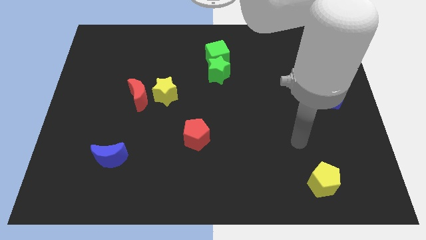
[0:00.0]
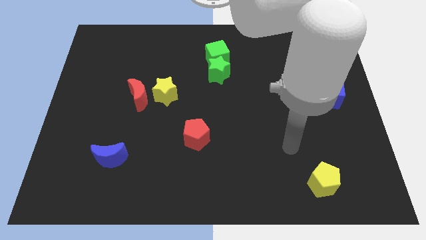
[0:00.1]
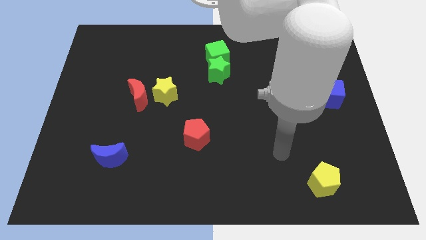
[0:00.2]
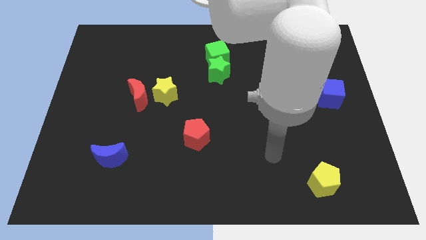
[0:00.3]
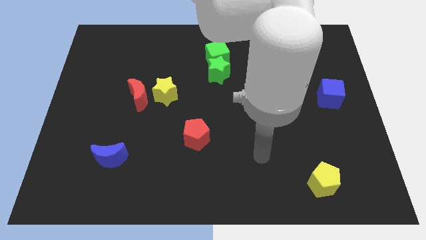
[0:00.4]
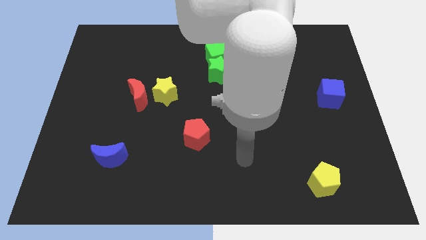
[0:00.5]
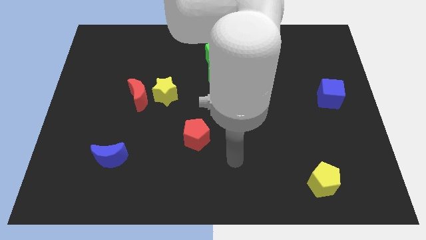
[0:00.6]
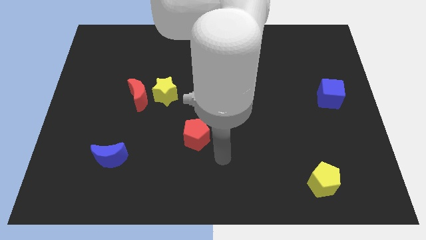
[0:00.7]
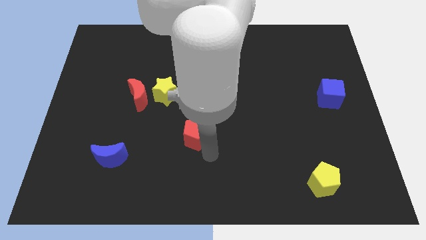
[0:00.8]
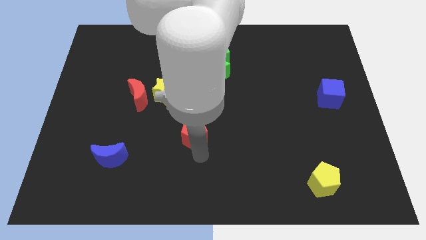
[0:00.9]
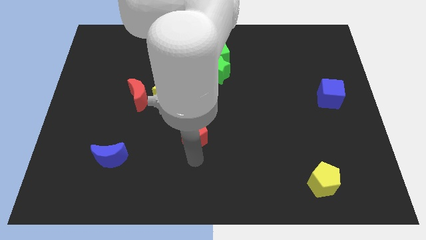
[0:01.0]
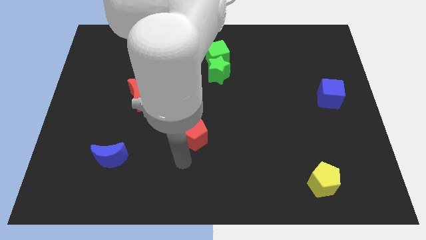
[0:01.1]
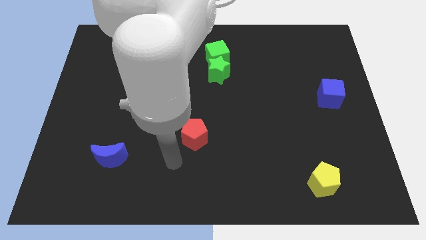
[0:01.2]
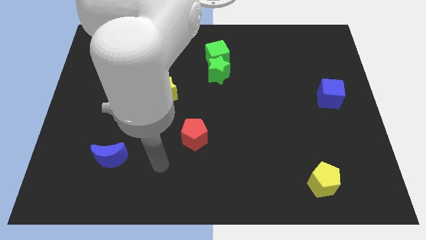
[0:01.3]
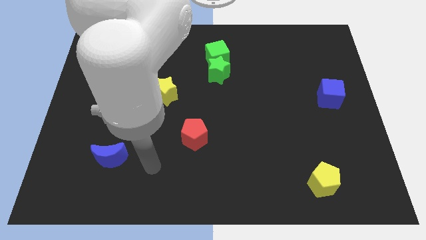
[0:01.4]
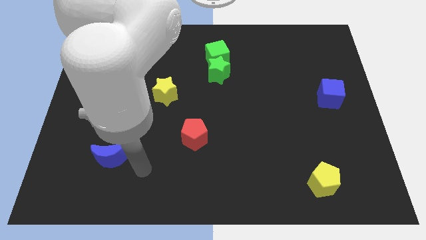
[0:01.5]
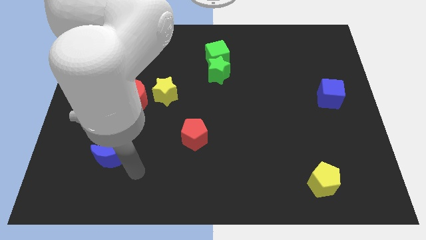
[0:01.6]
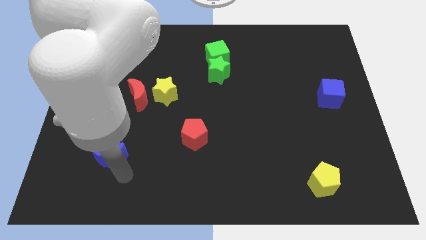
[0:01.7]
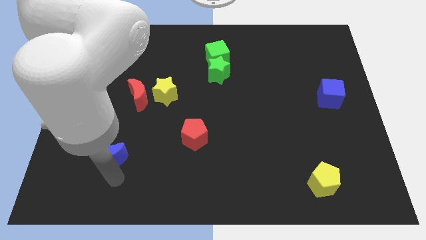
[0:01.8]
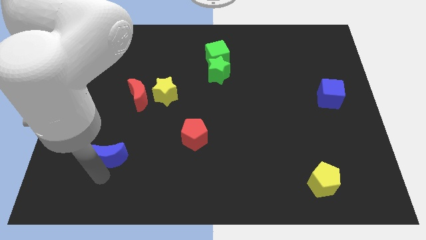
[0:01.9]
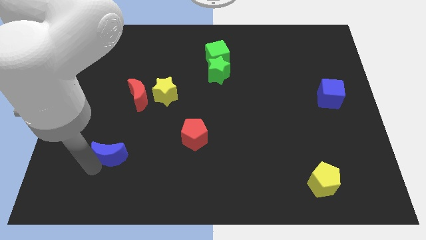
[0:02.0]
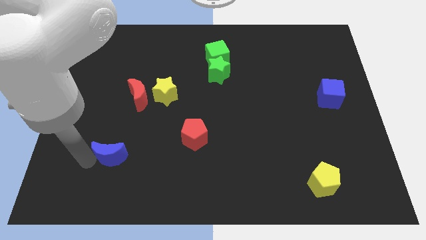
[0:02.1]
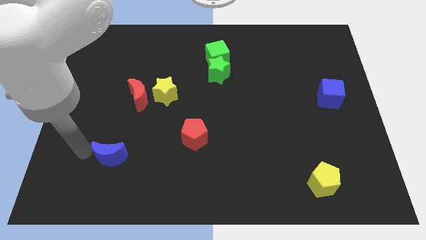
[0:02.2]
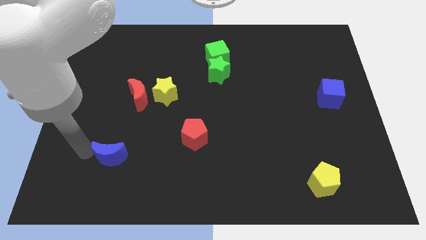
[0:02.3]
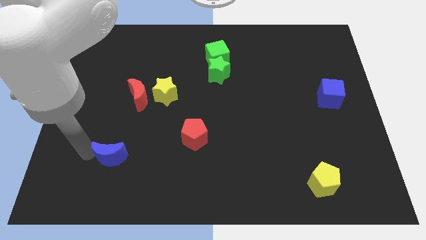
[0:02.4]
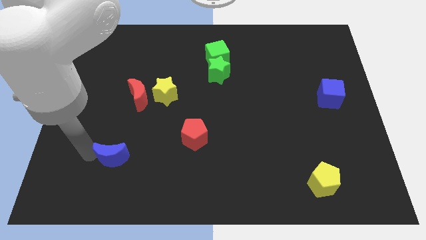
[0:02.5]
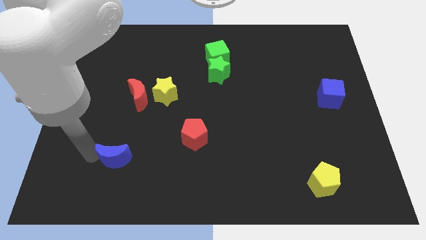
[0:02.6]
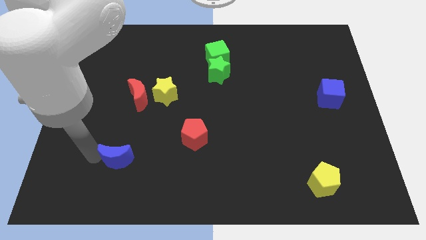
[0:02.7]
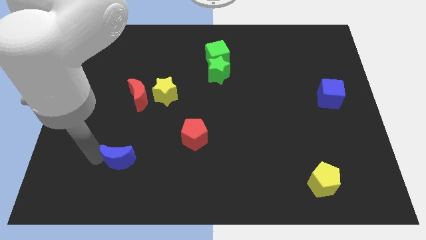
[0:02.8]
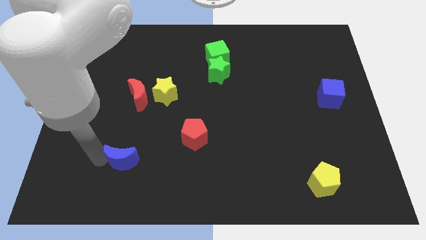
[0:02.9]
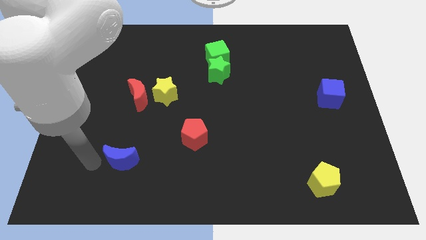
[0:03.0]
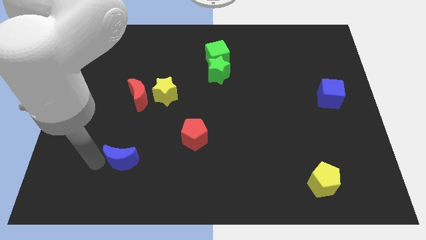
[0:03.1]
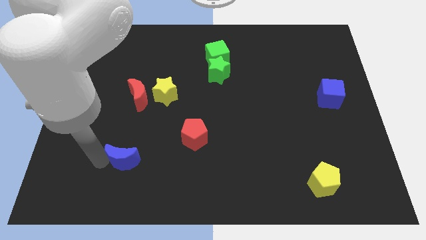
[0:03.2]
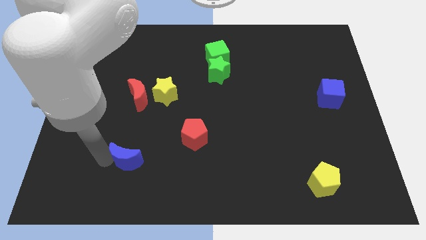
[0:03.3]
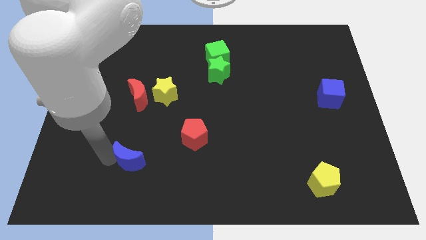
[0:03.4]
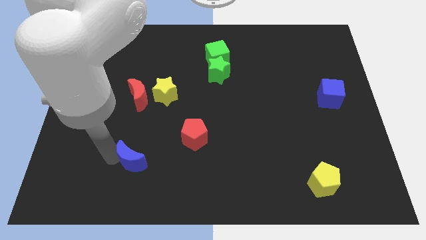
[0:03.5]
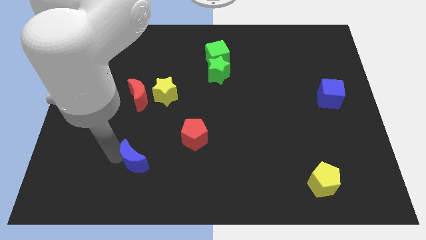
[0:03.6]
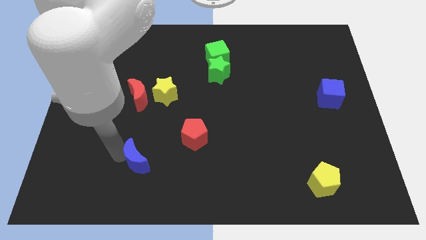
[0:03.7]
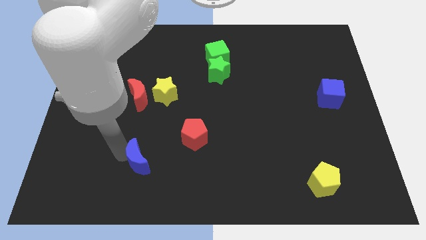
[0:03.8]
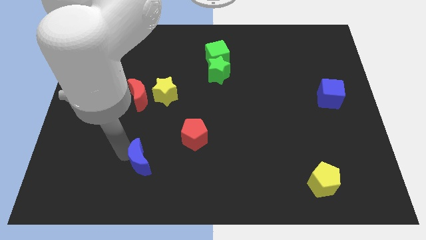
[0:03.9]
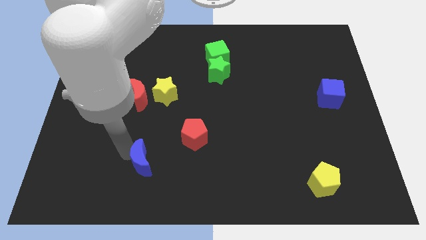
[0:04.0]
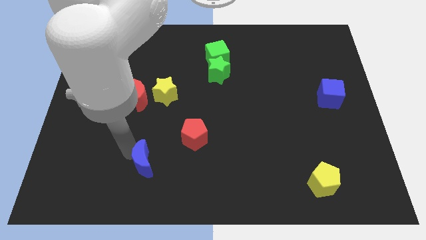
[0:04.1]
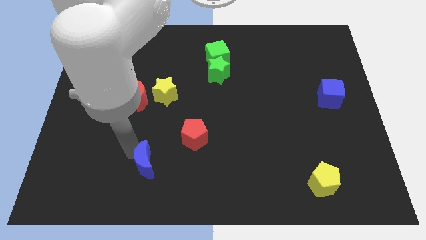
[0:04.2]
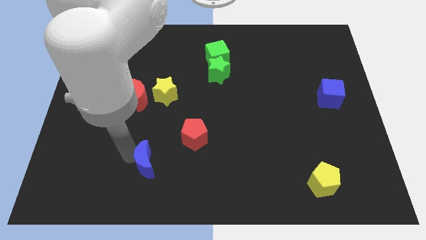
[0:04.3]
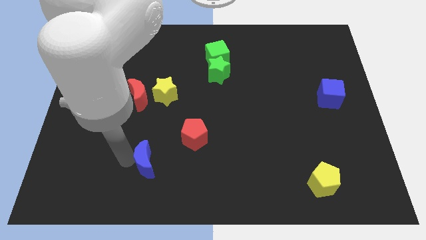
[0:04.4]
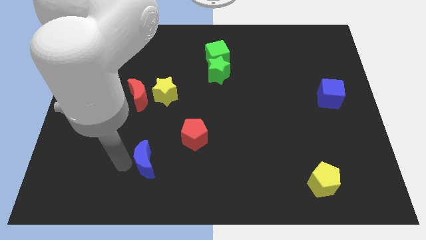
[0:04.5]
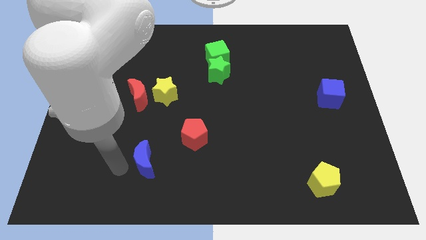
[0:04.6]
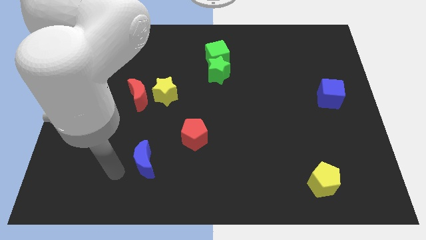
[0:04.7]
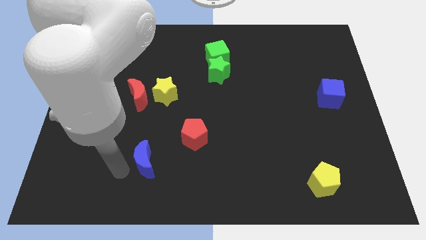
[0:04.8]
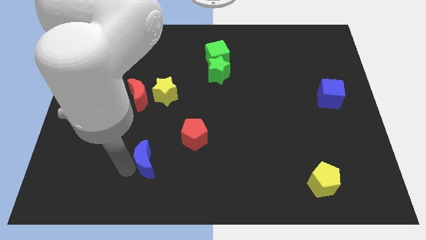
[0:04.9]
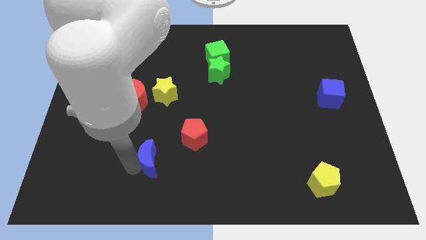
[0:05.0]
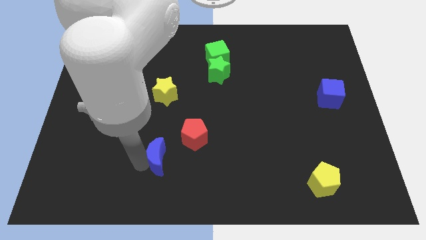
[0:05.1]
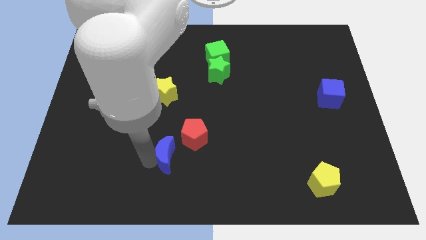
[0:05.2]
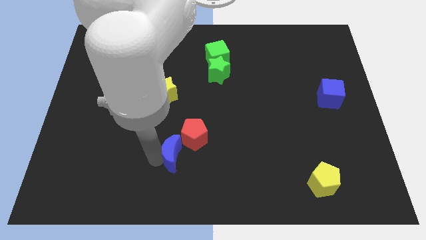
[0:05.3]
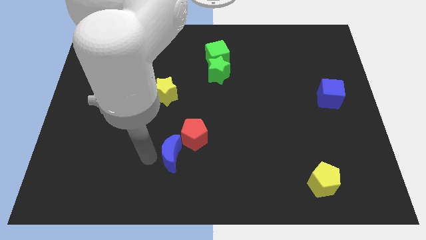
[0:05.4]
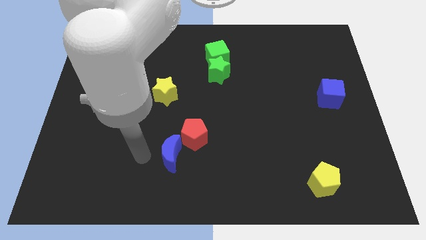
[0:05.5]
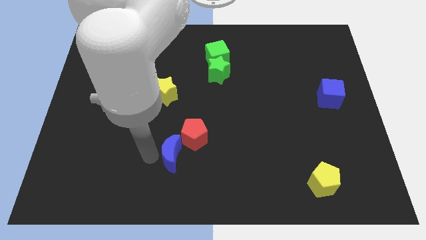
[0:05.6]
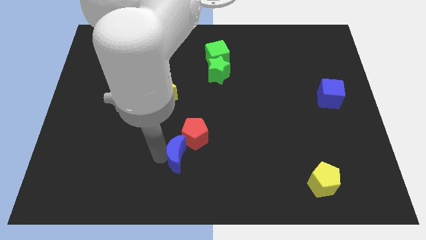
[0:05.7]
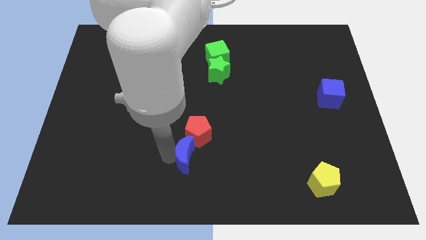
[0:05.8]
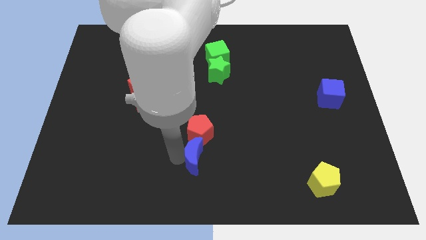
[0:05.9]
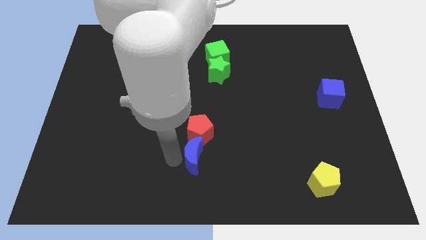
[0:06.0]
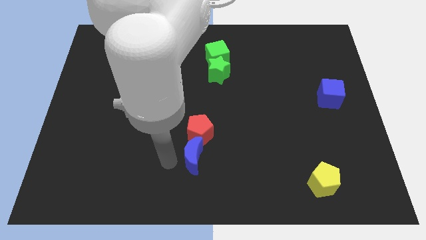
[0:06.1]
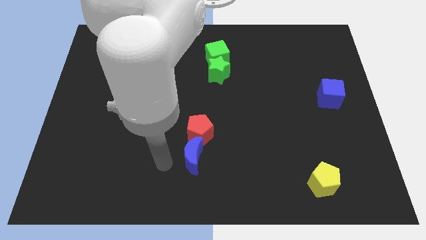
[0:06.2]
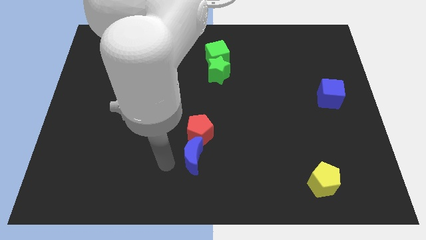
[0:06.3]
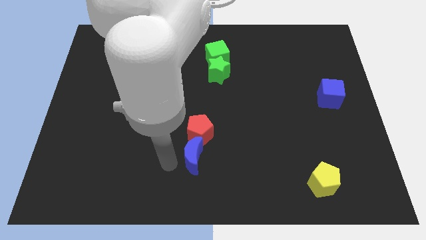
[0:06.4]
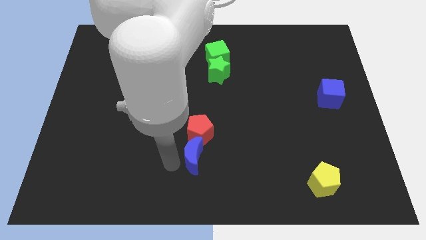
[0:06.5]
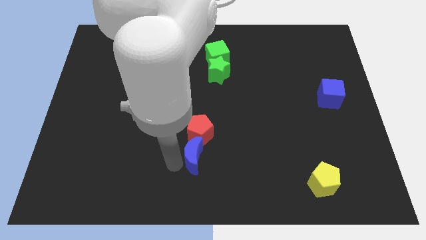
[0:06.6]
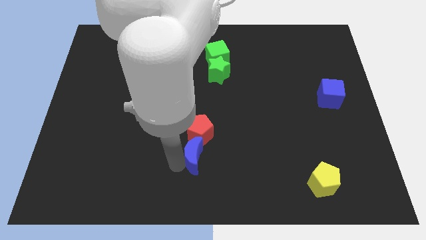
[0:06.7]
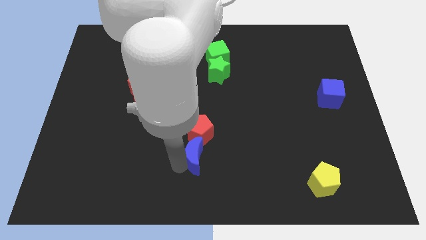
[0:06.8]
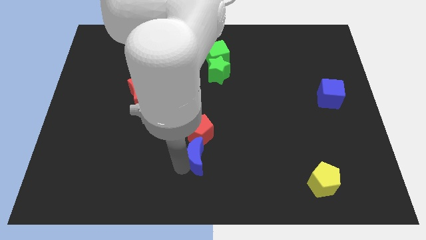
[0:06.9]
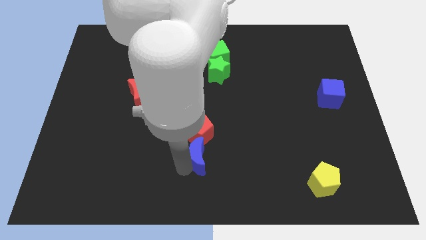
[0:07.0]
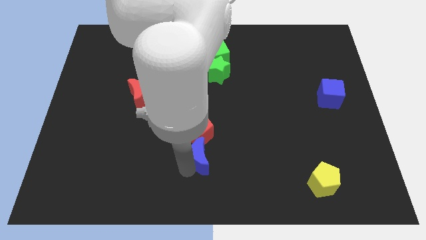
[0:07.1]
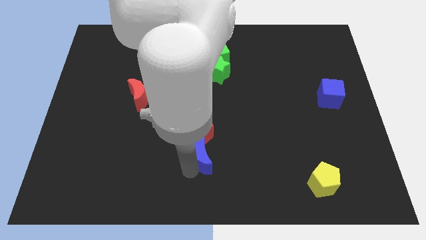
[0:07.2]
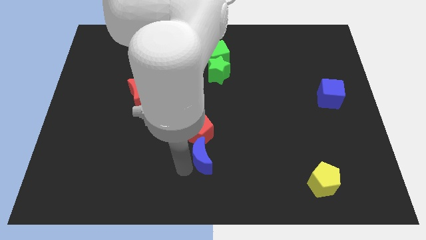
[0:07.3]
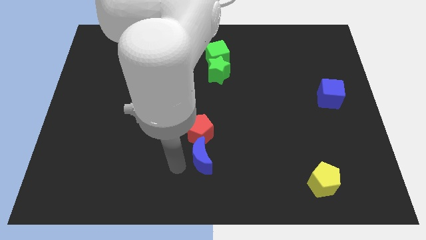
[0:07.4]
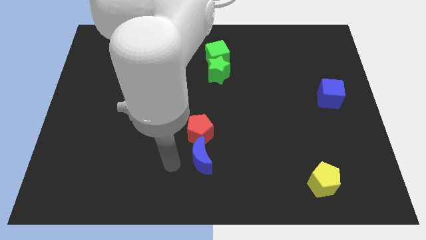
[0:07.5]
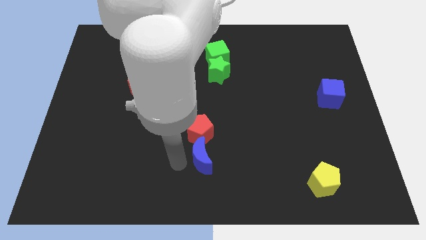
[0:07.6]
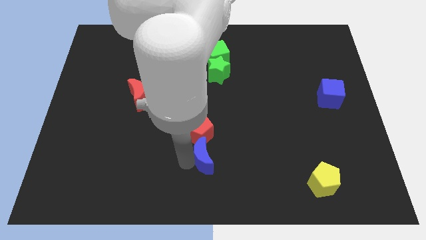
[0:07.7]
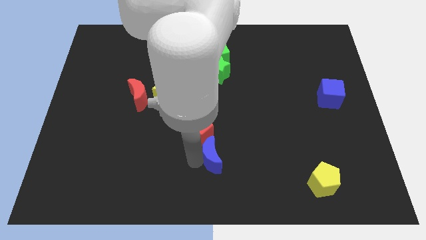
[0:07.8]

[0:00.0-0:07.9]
move the blue moon to the right

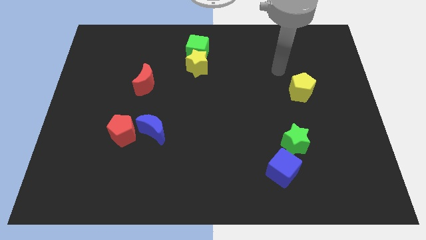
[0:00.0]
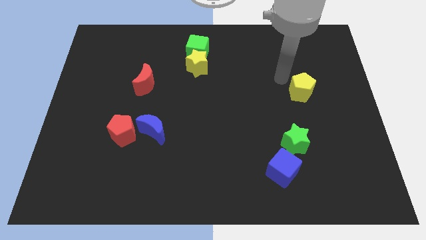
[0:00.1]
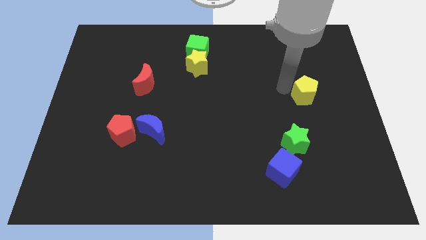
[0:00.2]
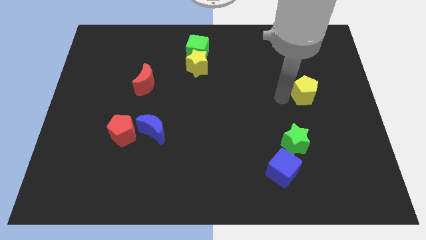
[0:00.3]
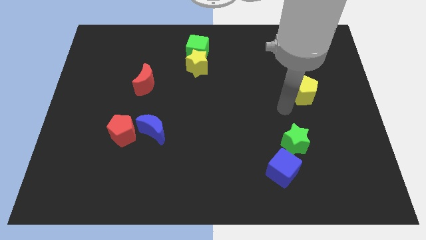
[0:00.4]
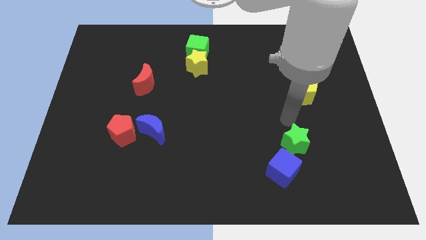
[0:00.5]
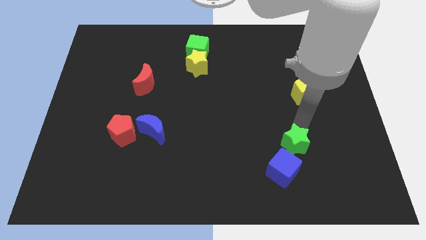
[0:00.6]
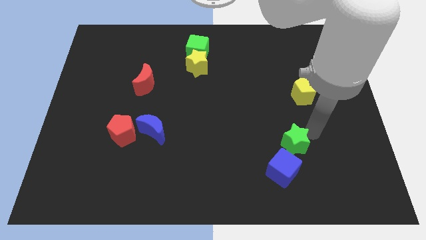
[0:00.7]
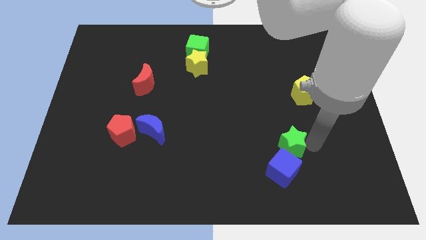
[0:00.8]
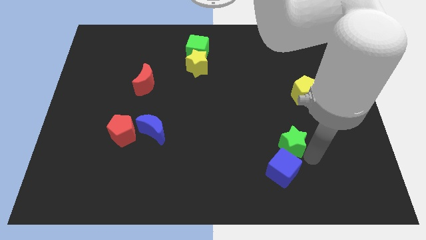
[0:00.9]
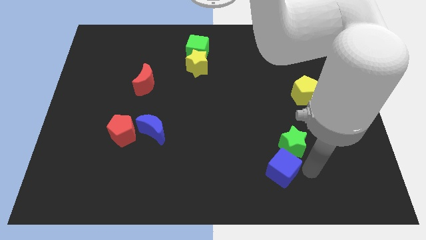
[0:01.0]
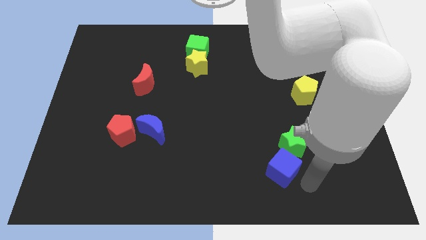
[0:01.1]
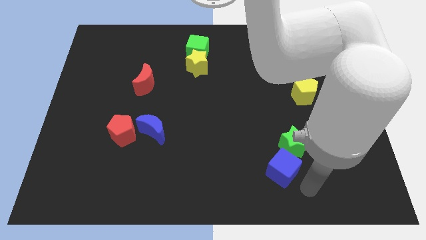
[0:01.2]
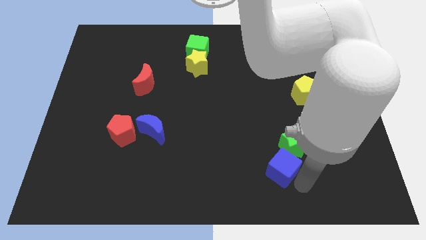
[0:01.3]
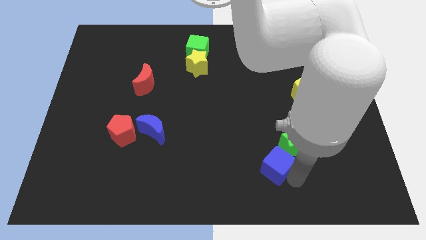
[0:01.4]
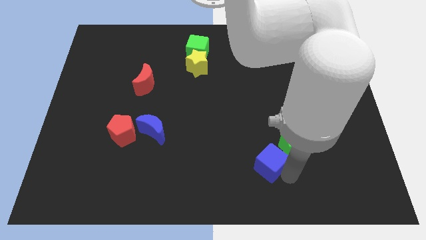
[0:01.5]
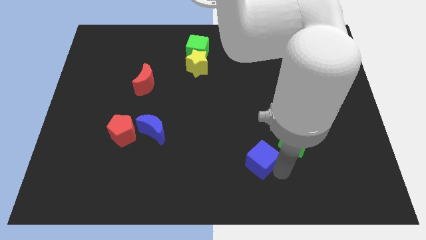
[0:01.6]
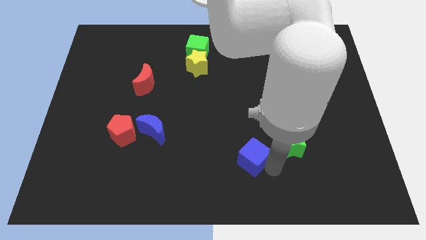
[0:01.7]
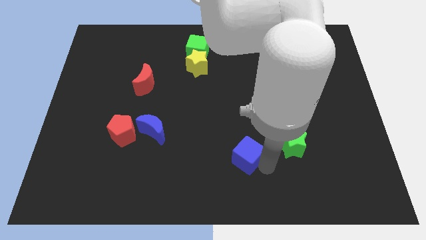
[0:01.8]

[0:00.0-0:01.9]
push the blue cube up and to the left diagonally a little
